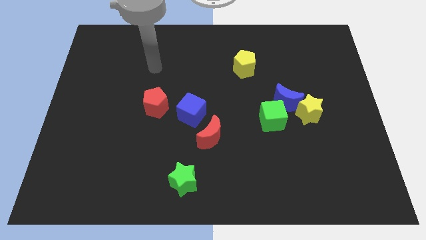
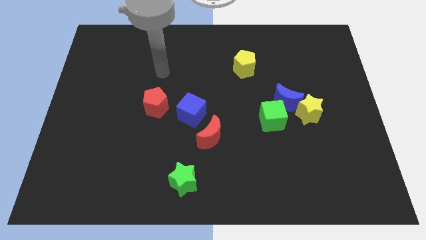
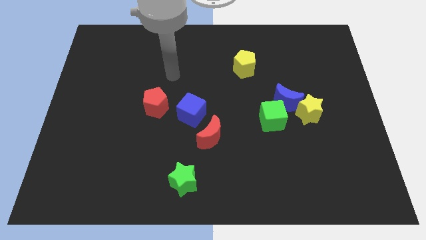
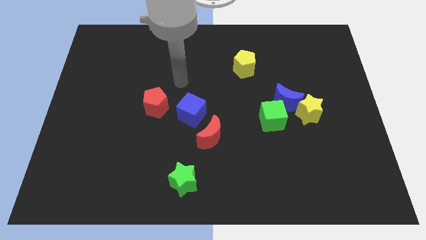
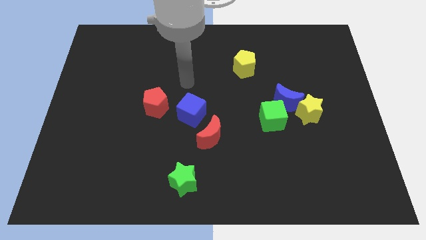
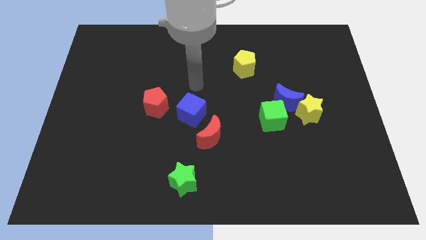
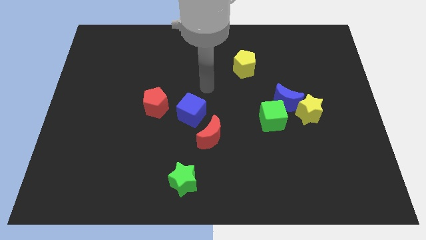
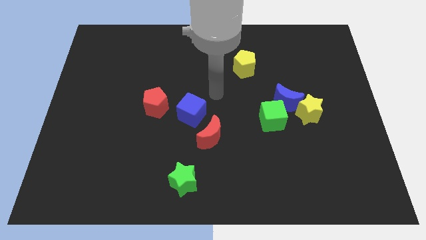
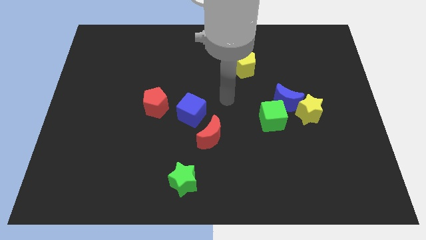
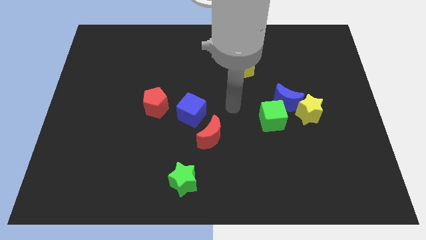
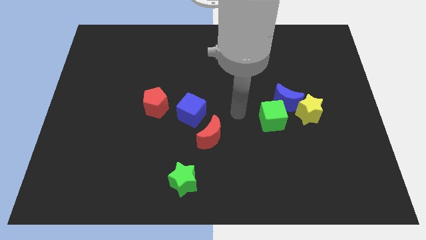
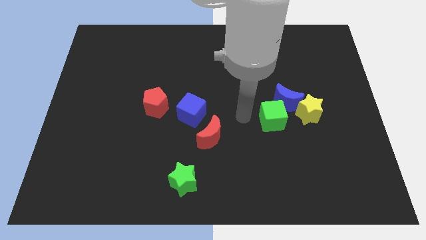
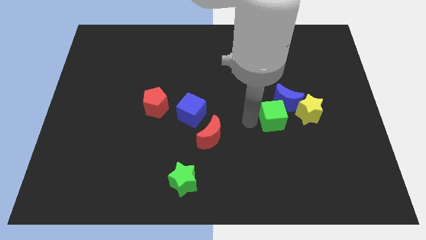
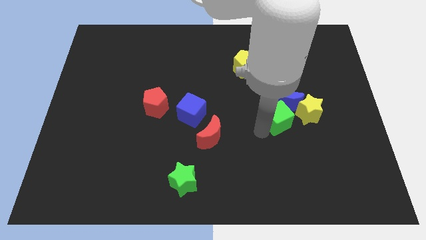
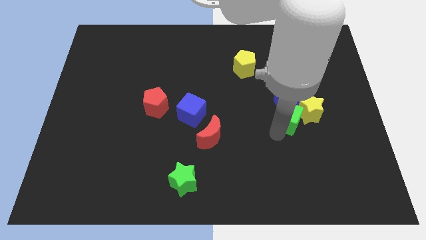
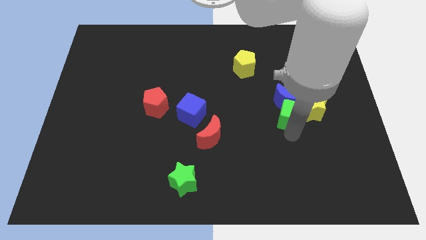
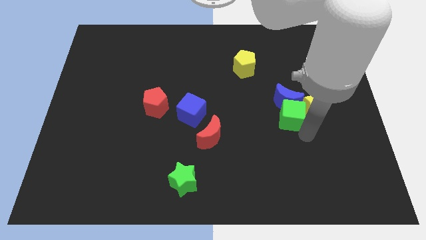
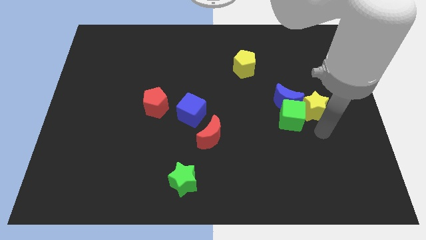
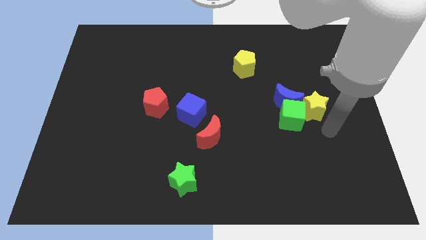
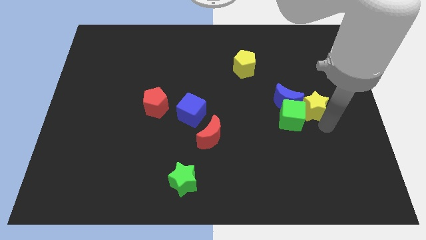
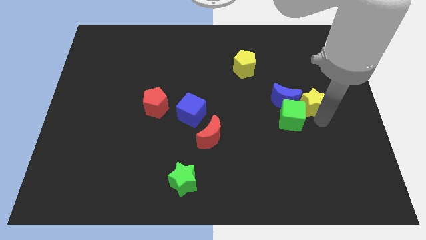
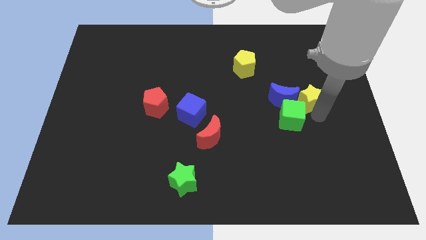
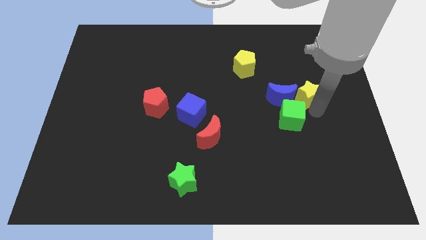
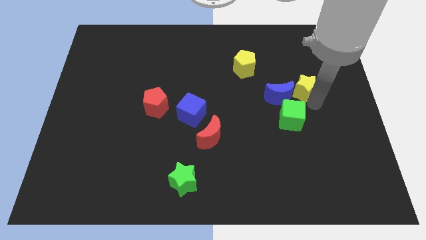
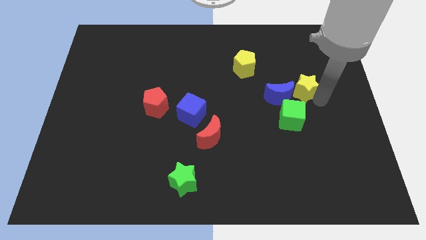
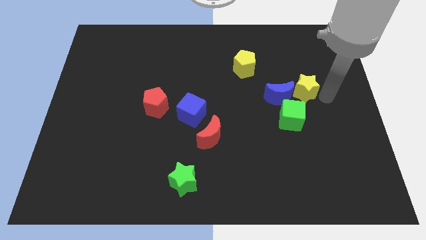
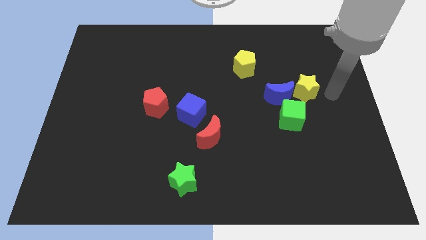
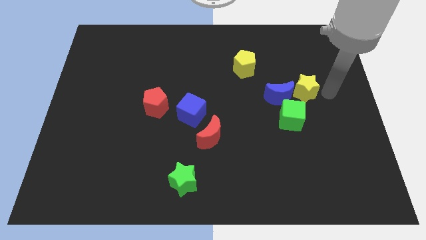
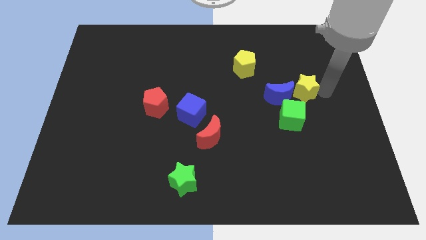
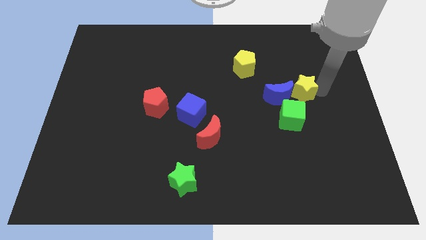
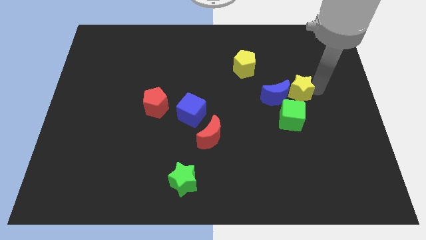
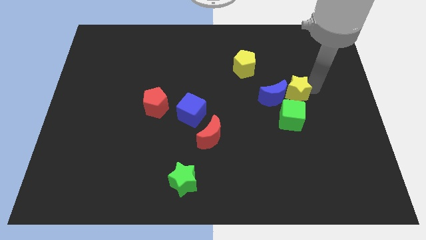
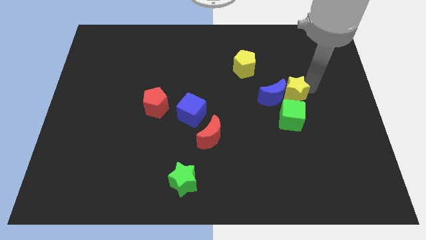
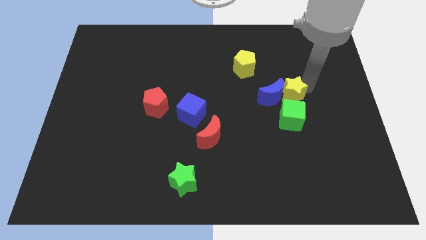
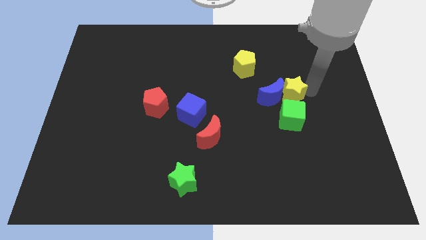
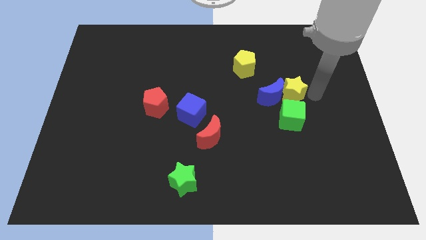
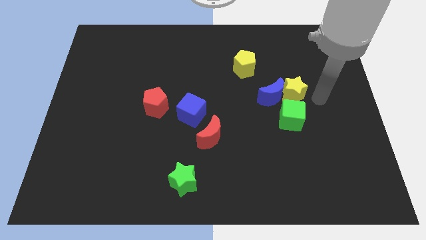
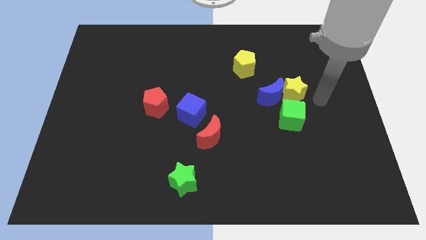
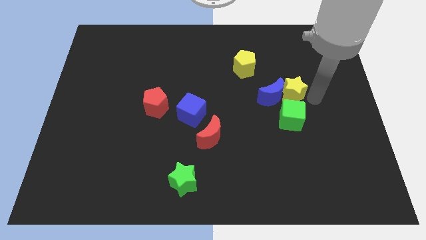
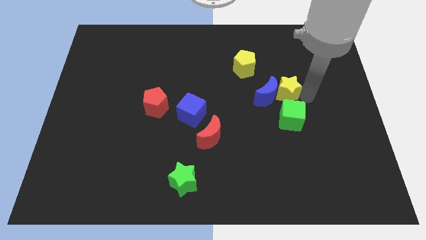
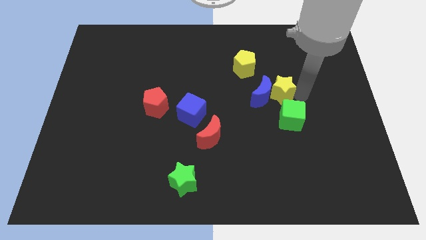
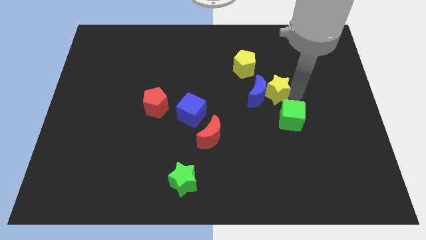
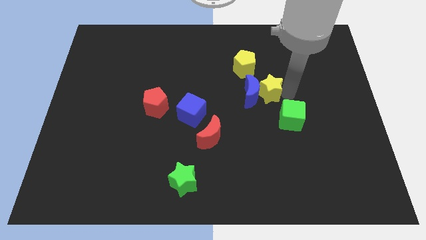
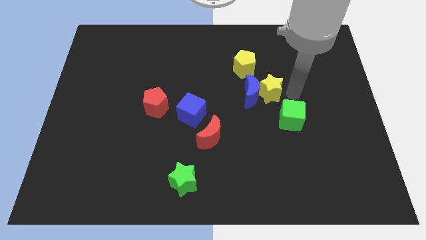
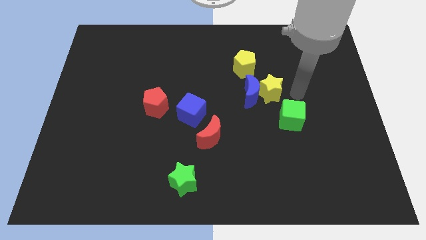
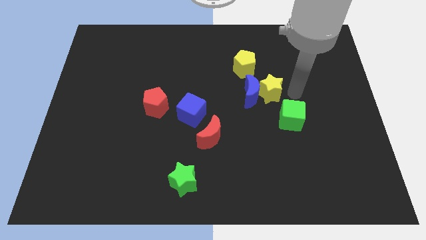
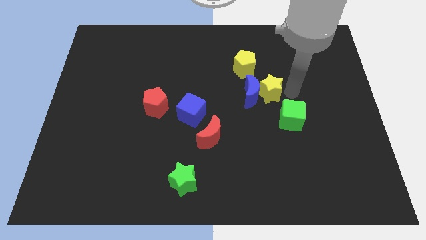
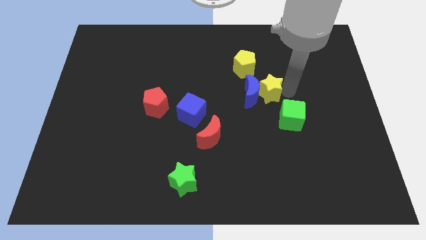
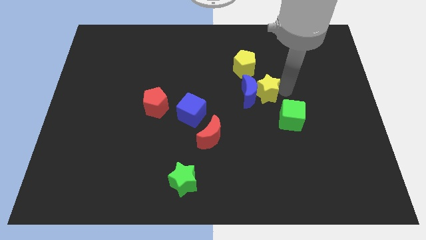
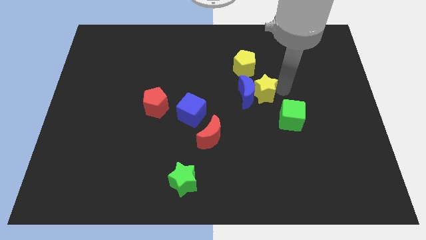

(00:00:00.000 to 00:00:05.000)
move the yellow star to the middle of the board

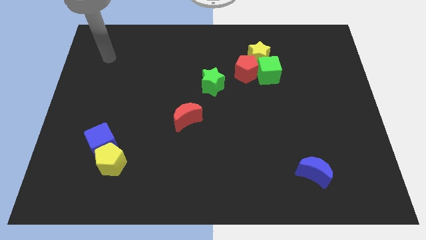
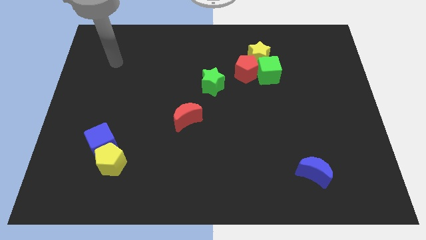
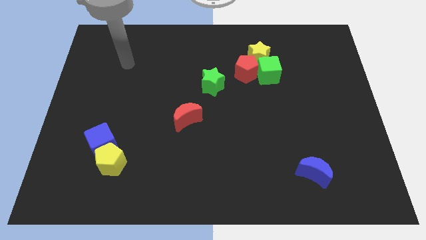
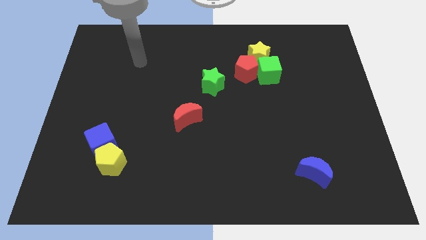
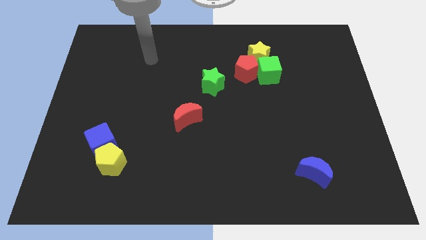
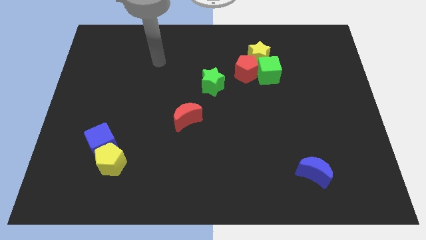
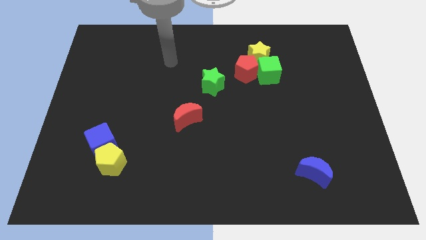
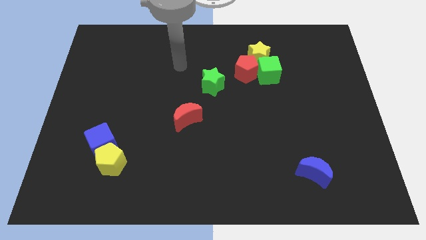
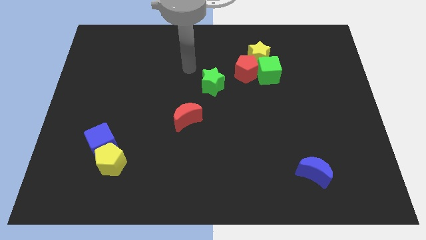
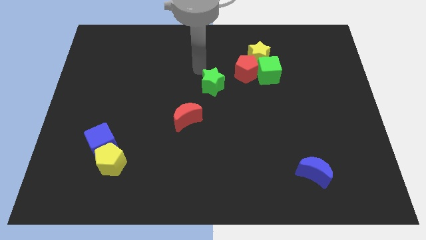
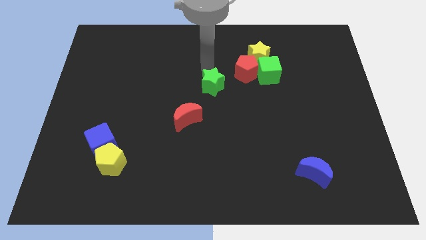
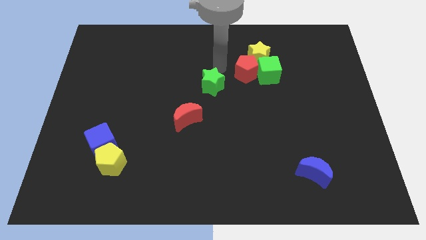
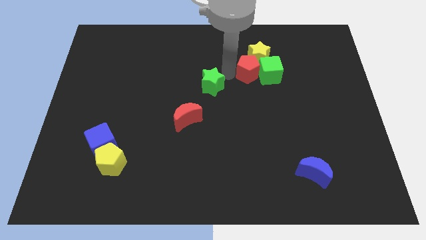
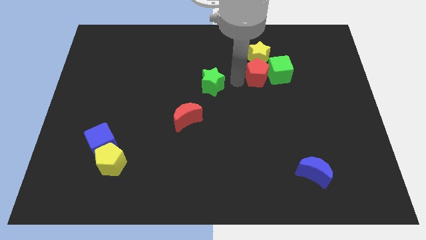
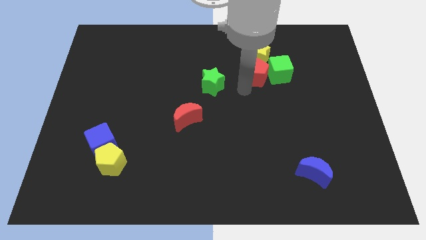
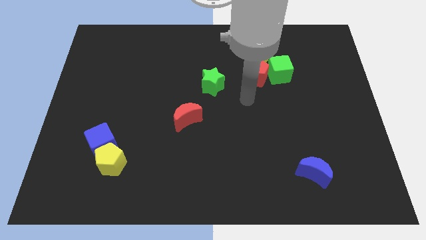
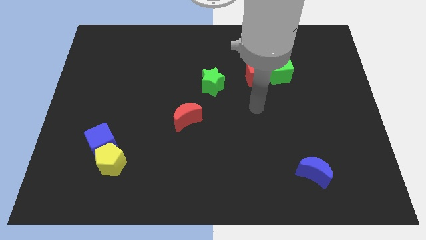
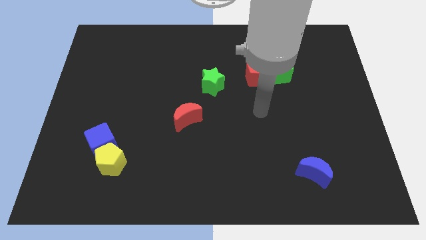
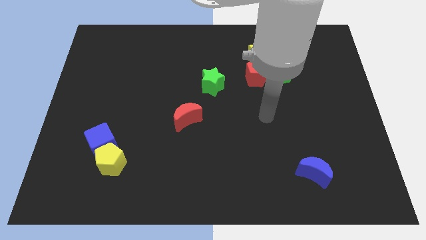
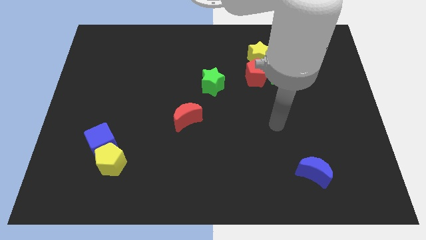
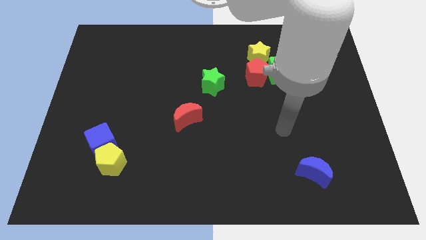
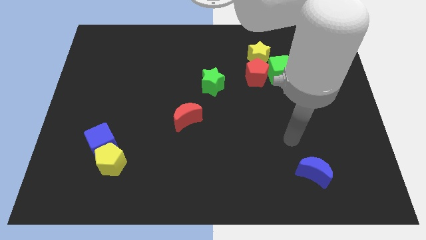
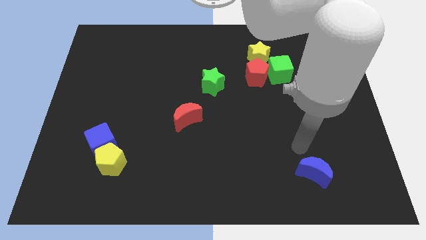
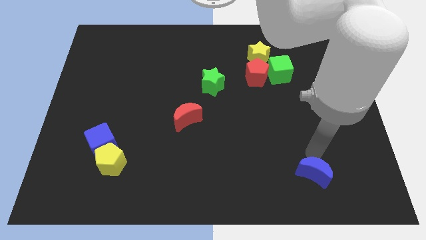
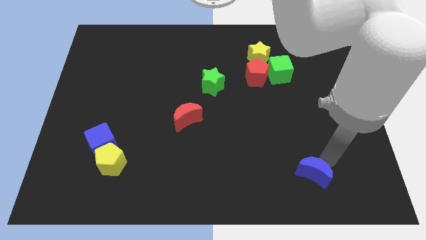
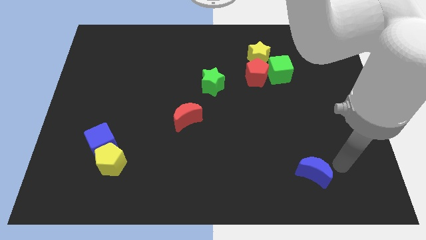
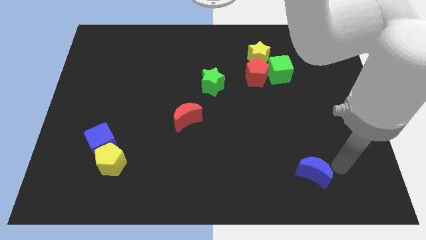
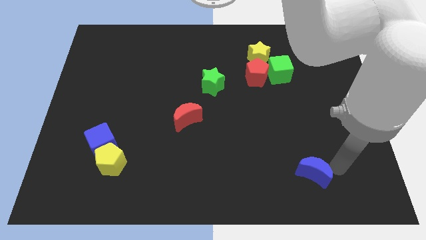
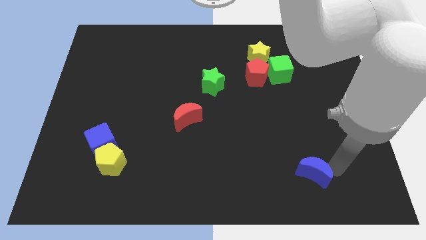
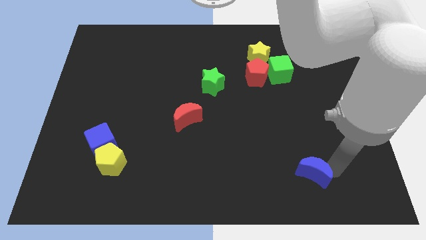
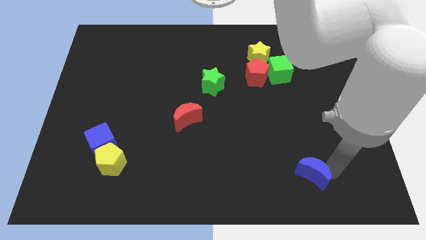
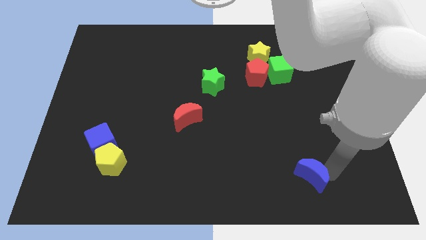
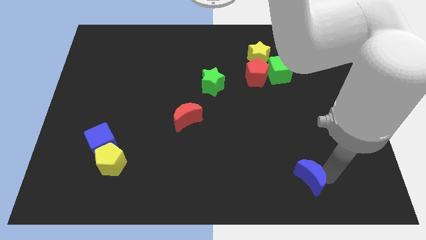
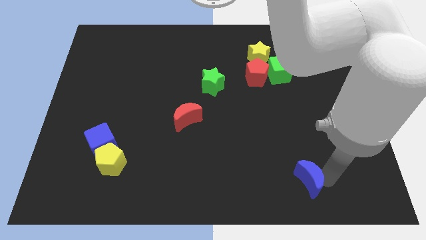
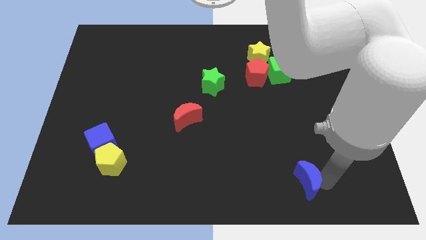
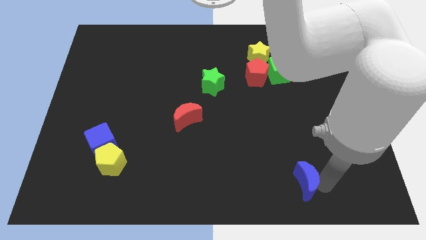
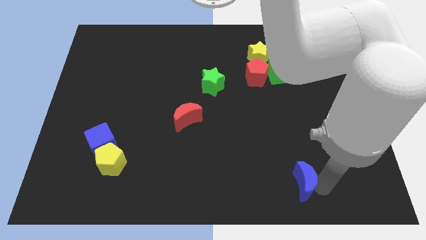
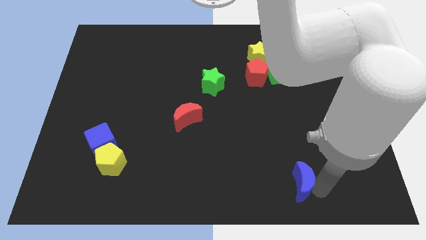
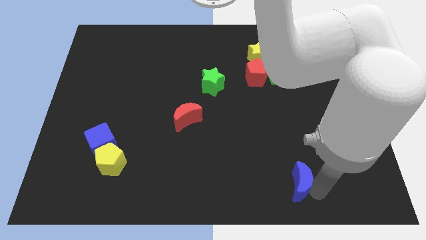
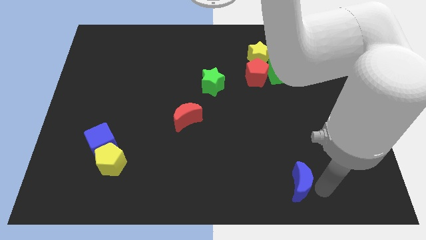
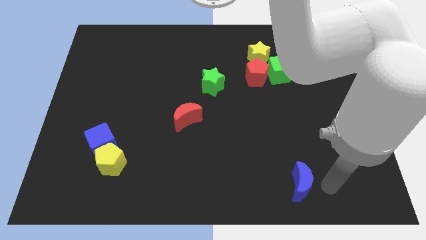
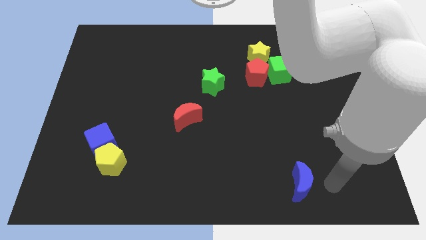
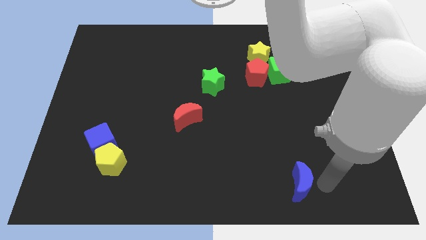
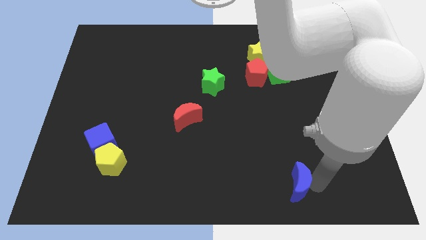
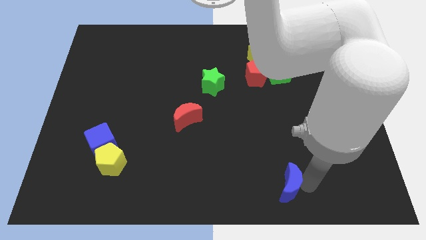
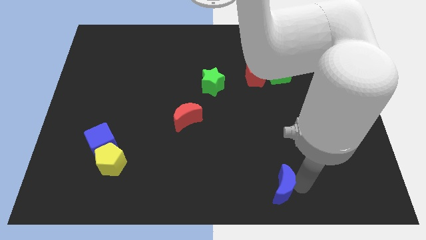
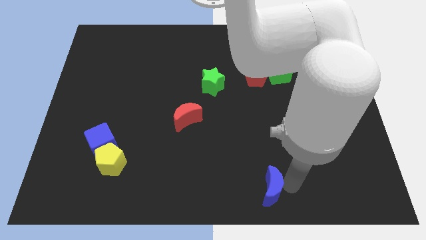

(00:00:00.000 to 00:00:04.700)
move the blue moon to the bottom side
